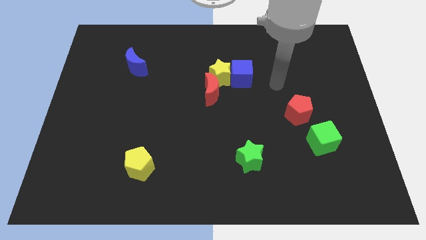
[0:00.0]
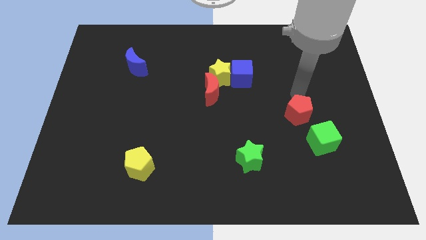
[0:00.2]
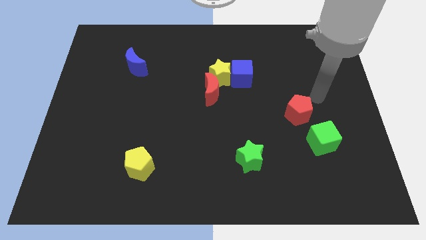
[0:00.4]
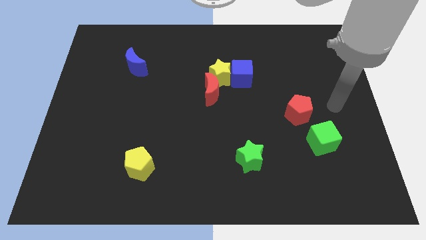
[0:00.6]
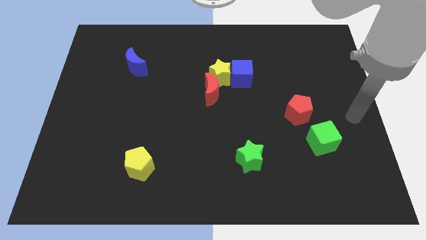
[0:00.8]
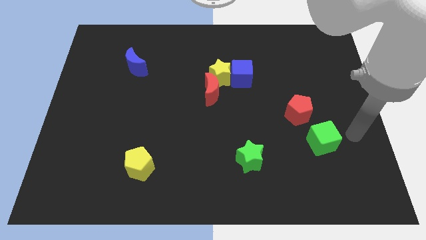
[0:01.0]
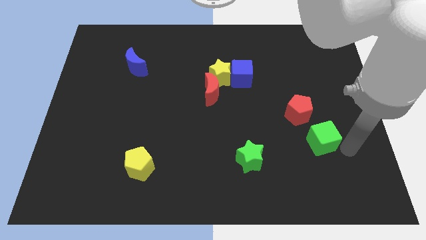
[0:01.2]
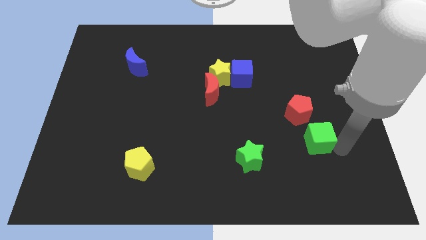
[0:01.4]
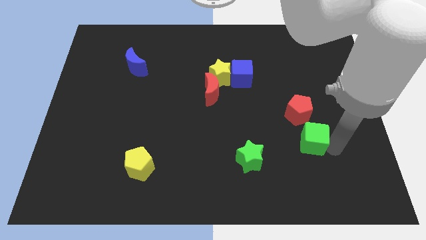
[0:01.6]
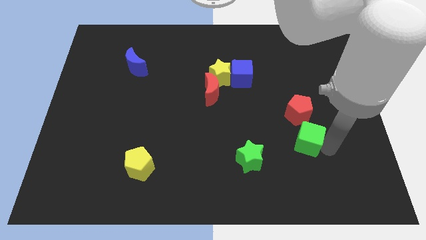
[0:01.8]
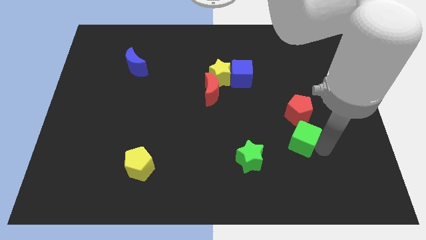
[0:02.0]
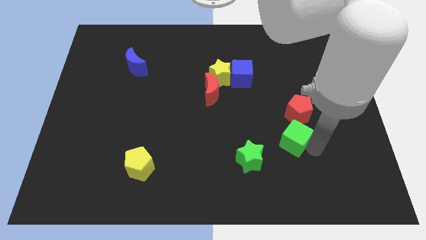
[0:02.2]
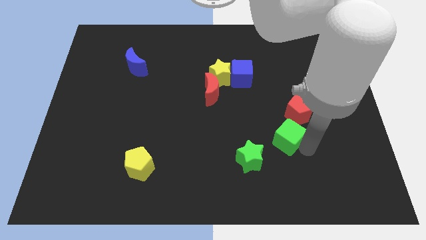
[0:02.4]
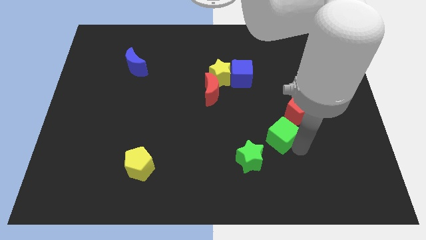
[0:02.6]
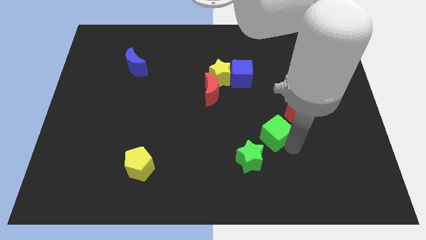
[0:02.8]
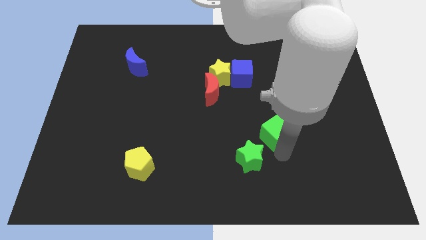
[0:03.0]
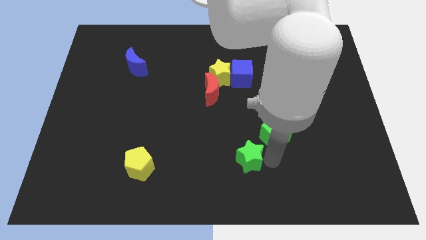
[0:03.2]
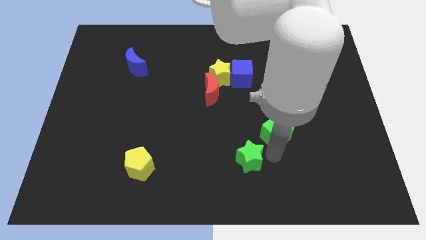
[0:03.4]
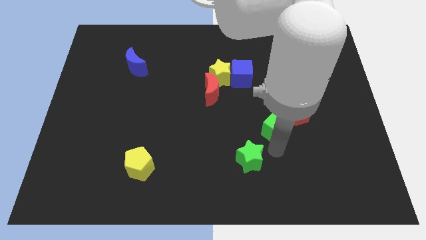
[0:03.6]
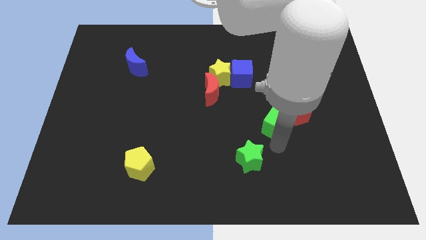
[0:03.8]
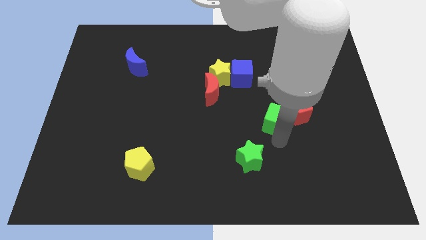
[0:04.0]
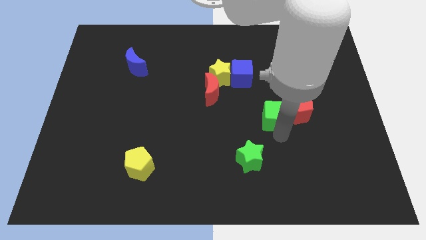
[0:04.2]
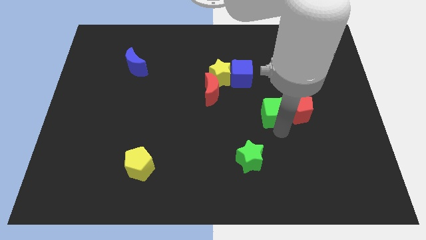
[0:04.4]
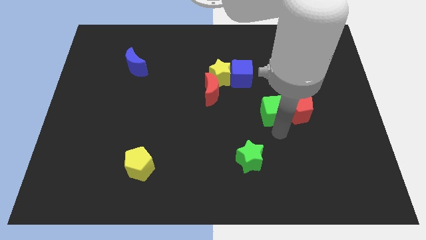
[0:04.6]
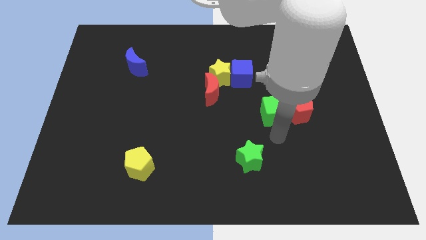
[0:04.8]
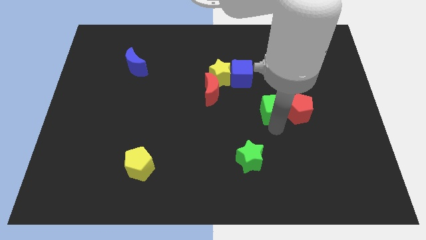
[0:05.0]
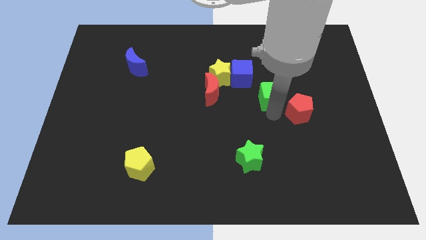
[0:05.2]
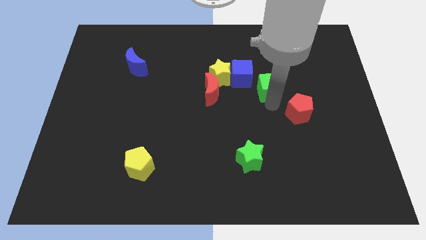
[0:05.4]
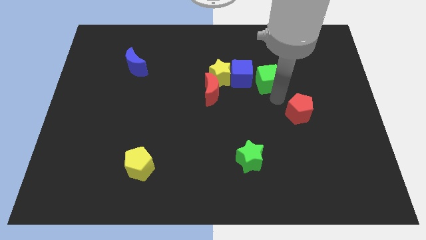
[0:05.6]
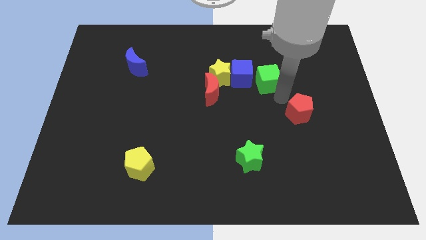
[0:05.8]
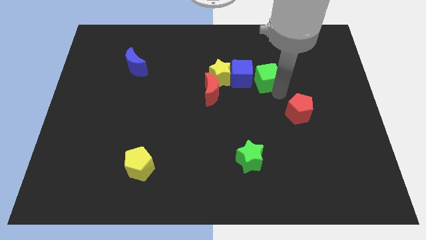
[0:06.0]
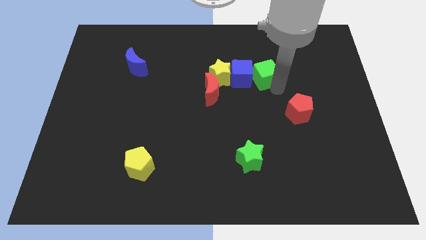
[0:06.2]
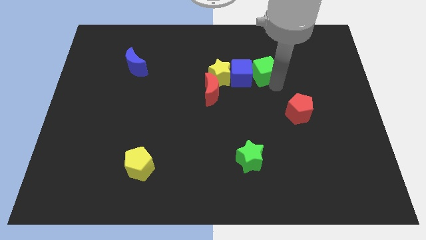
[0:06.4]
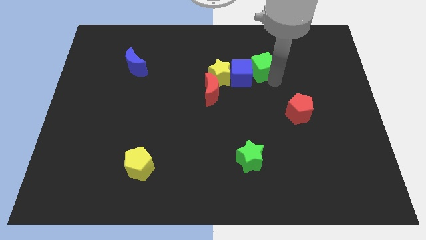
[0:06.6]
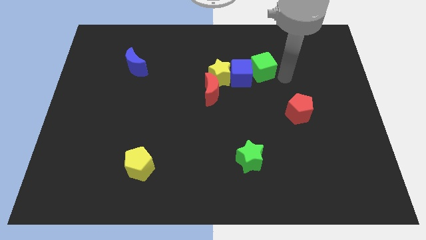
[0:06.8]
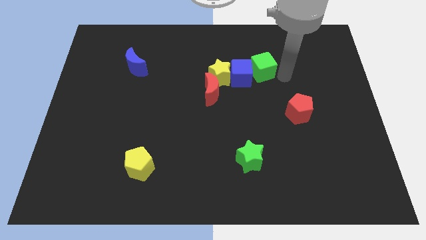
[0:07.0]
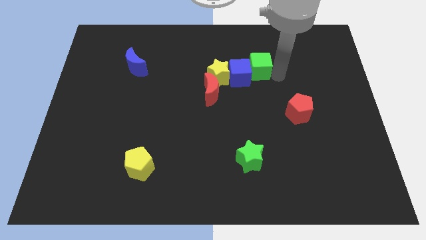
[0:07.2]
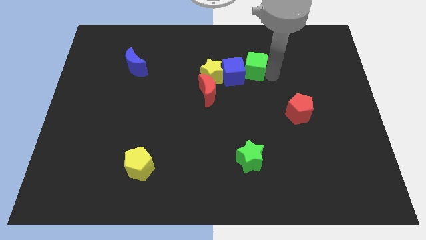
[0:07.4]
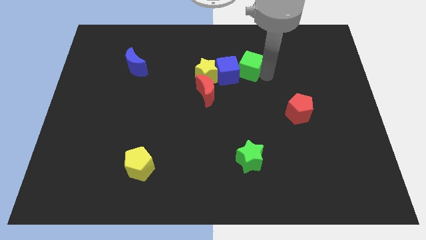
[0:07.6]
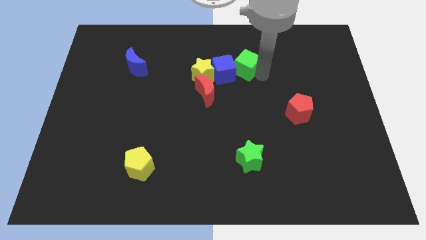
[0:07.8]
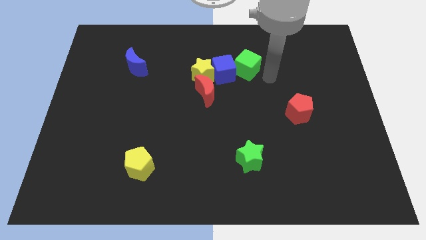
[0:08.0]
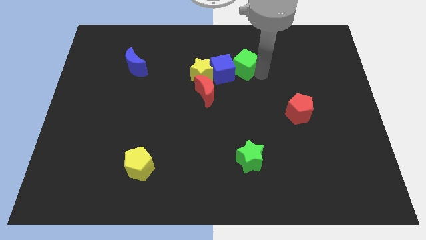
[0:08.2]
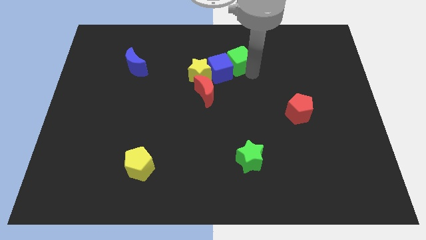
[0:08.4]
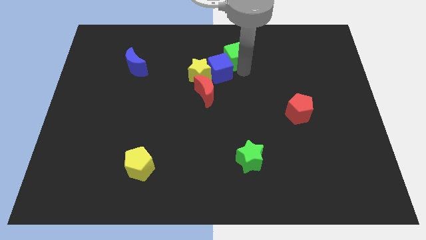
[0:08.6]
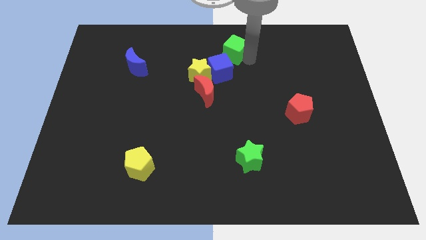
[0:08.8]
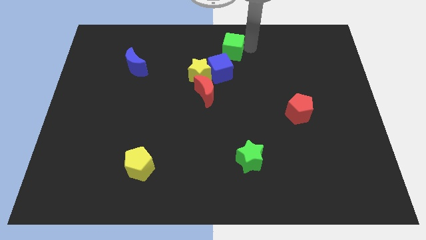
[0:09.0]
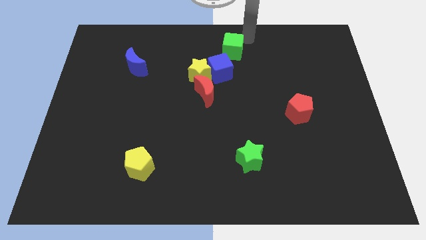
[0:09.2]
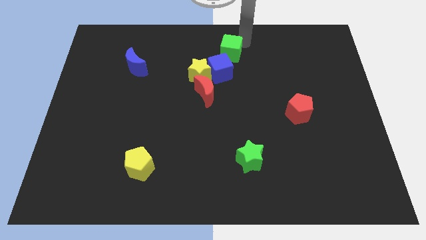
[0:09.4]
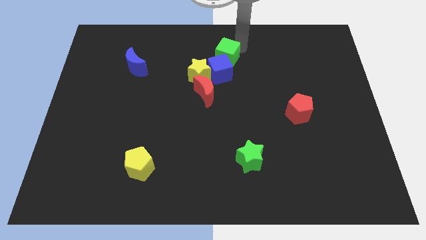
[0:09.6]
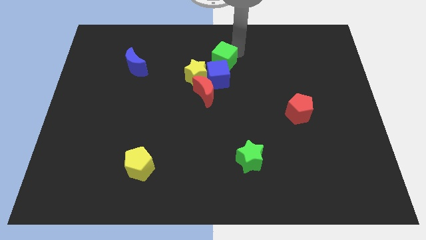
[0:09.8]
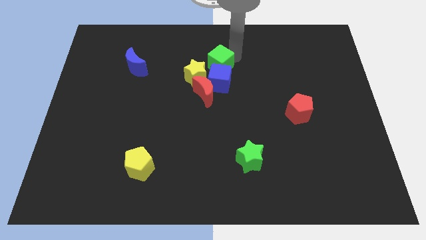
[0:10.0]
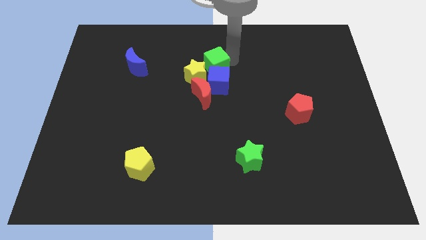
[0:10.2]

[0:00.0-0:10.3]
slide the green cube towards the yellow star

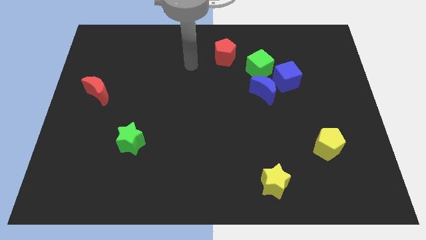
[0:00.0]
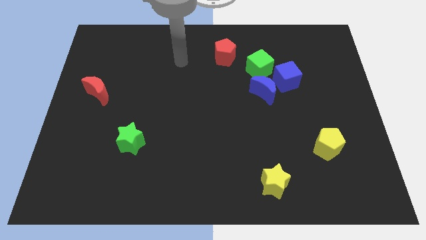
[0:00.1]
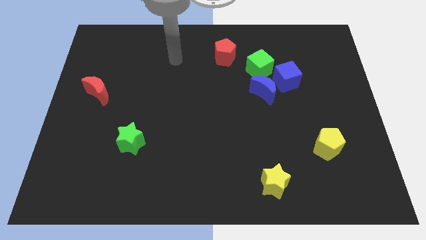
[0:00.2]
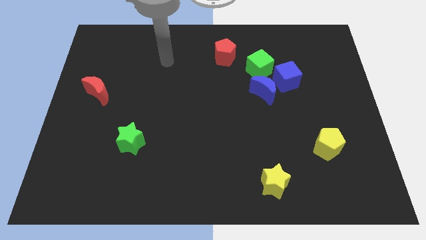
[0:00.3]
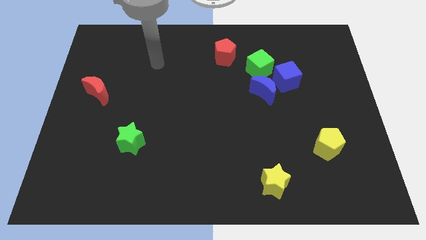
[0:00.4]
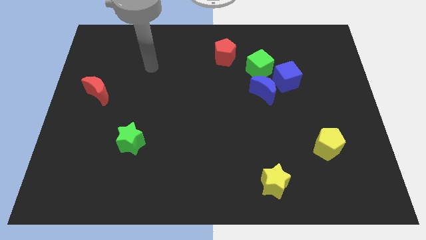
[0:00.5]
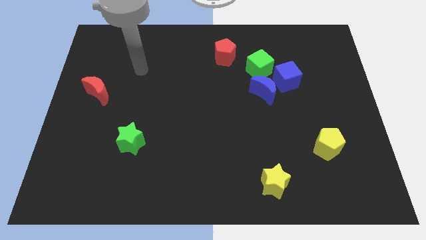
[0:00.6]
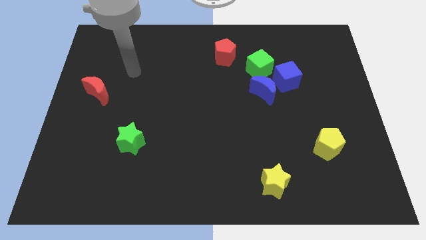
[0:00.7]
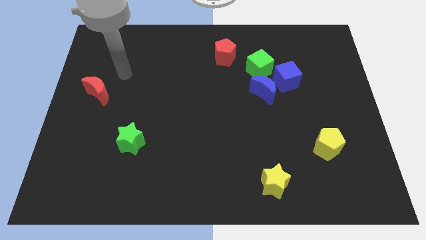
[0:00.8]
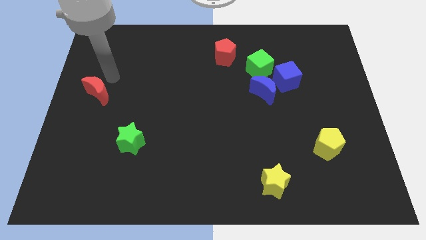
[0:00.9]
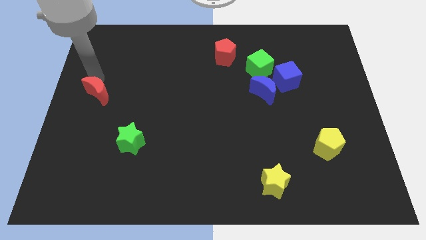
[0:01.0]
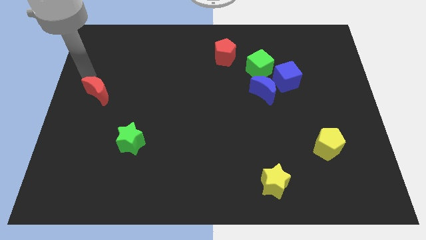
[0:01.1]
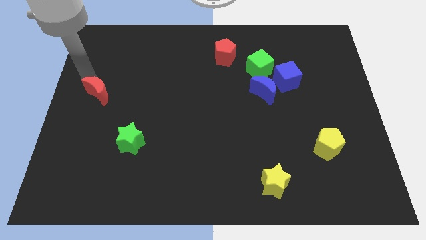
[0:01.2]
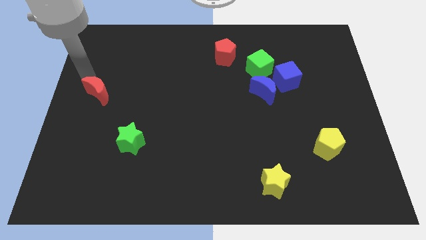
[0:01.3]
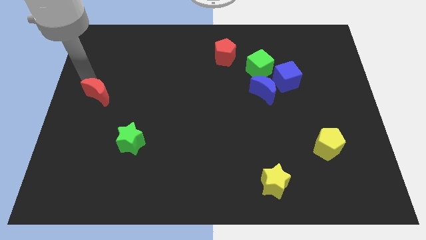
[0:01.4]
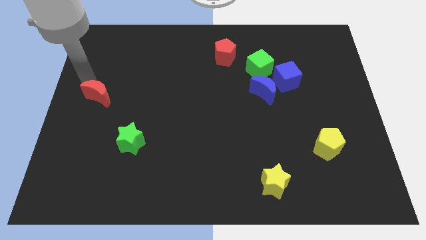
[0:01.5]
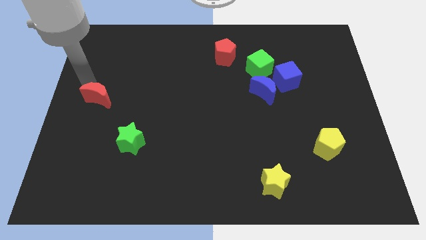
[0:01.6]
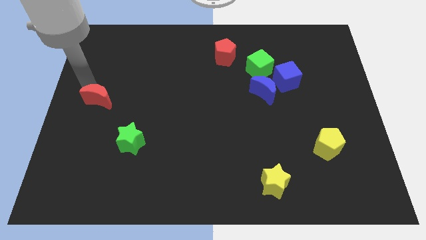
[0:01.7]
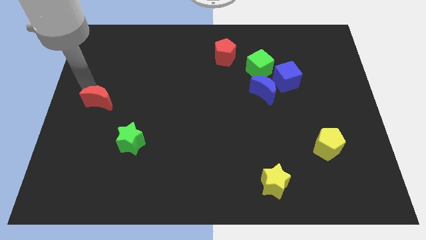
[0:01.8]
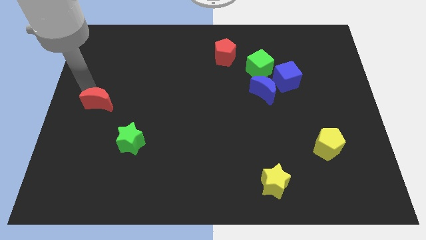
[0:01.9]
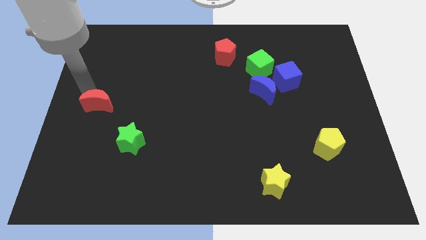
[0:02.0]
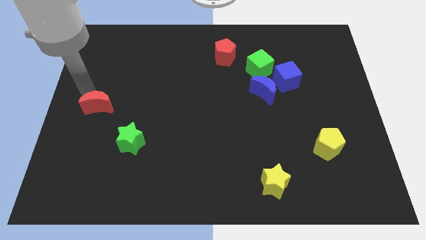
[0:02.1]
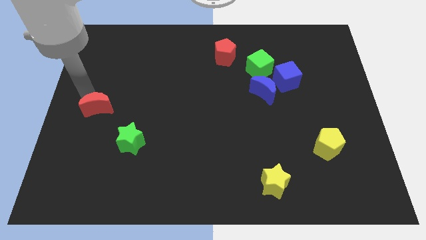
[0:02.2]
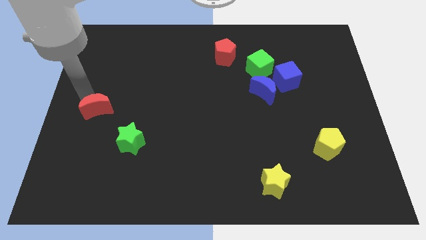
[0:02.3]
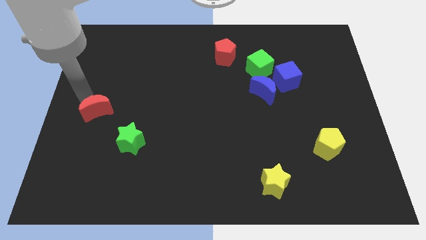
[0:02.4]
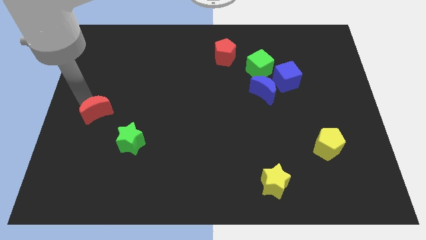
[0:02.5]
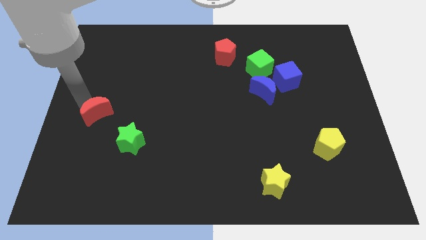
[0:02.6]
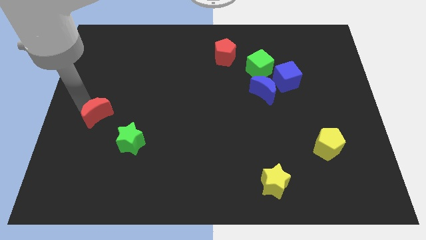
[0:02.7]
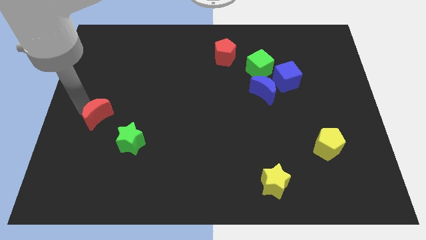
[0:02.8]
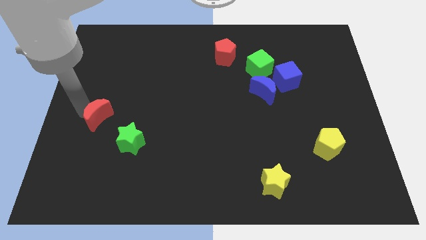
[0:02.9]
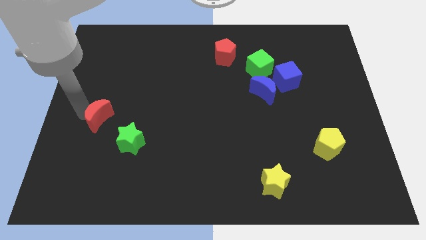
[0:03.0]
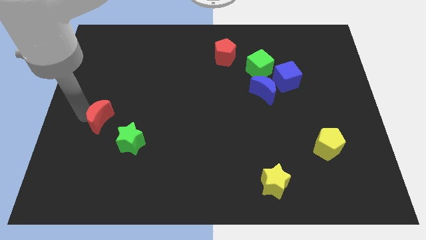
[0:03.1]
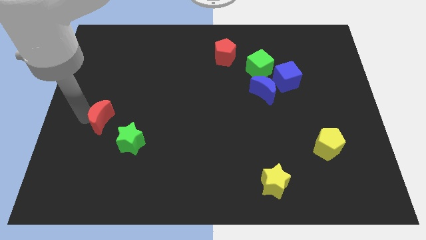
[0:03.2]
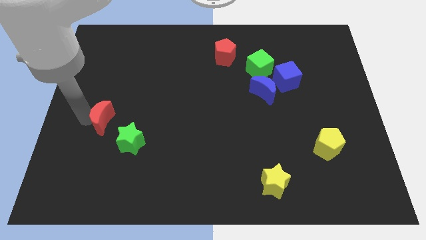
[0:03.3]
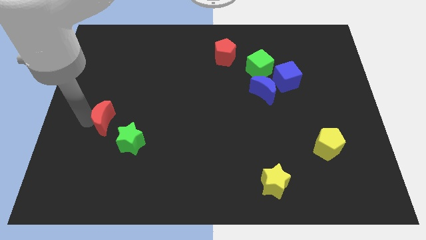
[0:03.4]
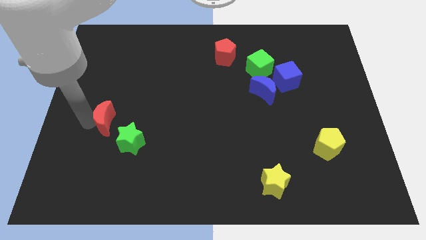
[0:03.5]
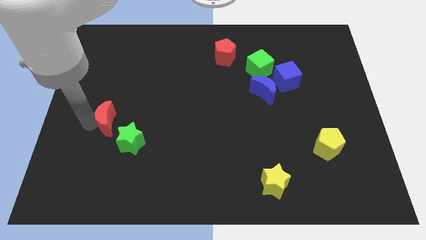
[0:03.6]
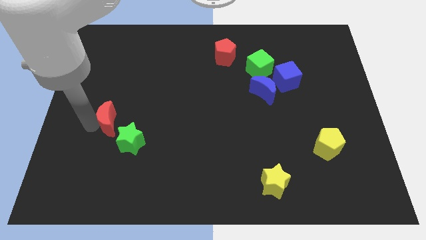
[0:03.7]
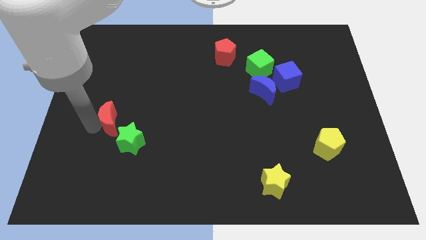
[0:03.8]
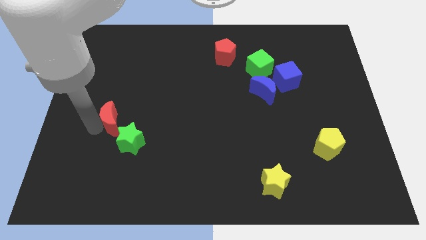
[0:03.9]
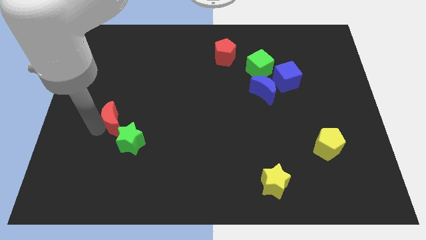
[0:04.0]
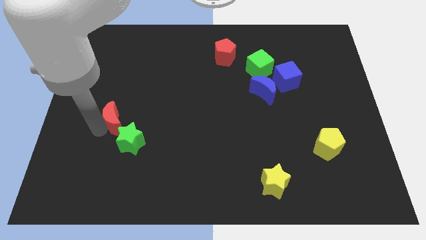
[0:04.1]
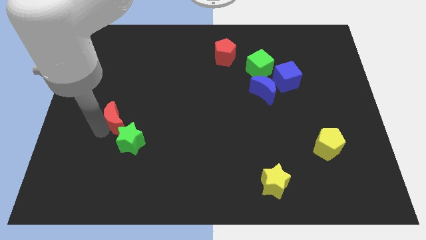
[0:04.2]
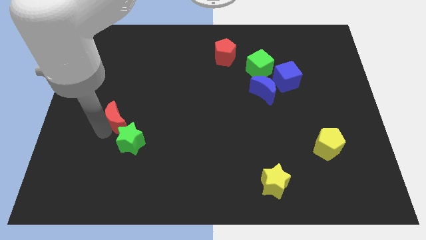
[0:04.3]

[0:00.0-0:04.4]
push the red moon towards the green star
